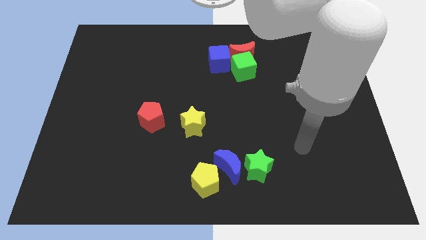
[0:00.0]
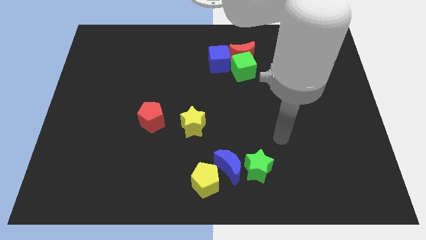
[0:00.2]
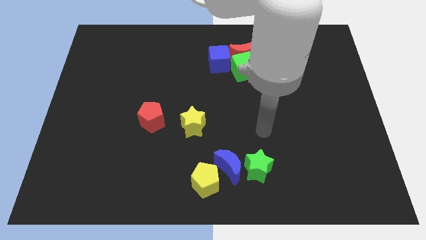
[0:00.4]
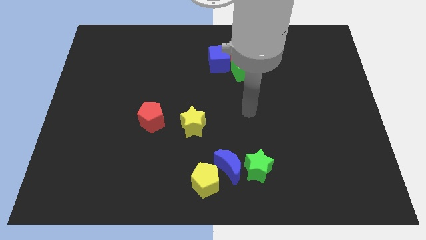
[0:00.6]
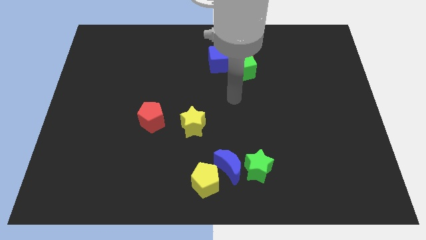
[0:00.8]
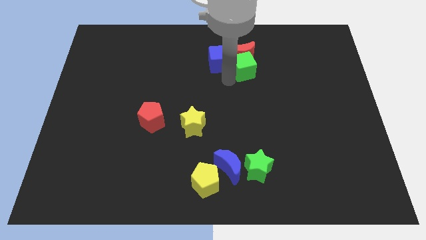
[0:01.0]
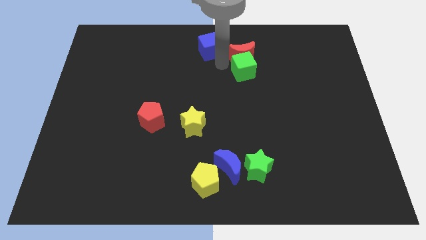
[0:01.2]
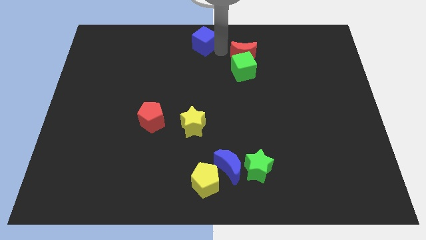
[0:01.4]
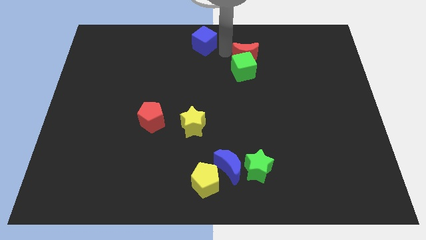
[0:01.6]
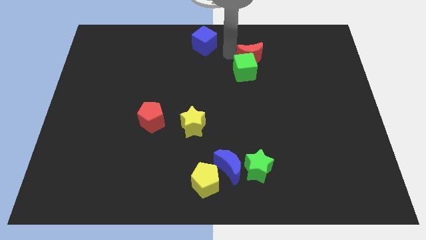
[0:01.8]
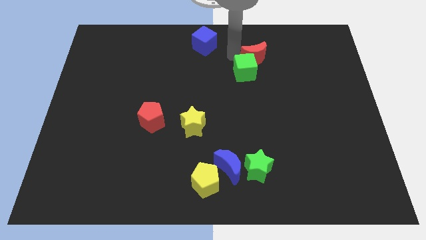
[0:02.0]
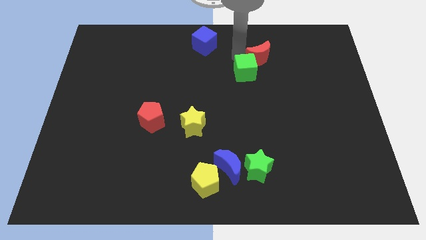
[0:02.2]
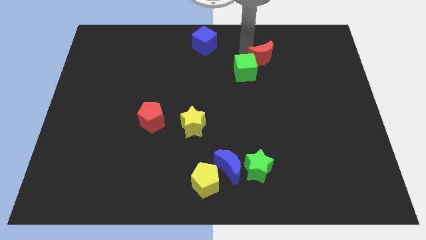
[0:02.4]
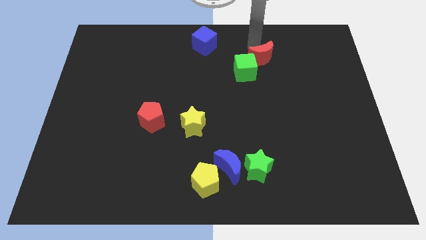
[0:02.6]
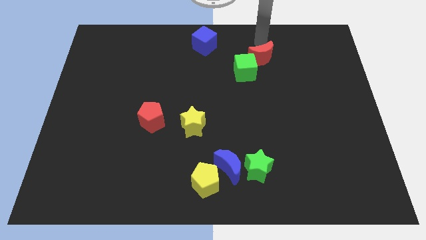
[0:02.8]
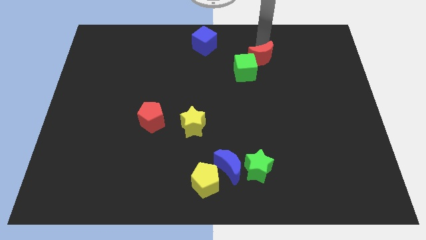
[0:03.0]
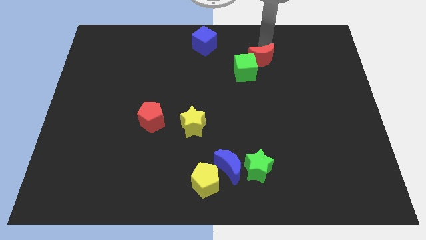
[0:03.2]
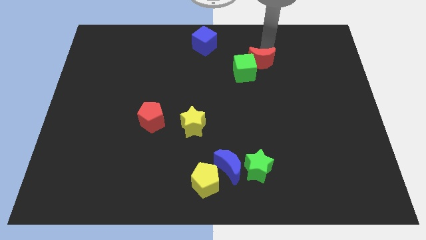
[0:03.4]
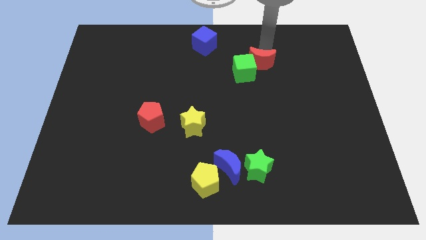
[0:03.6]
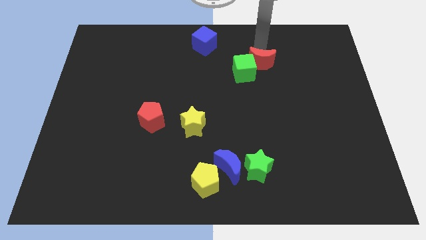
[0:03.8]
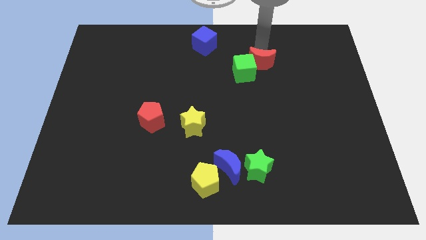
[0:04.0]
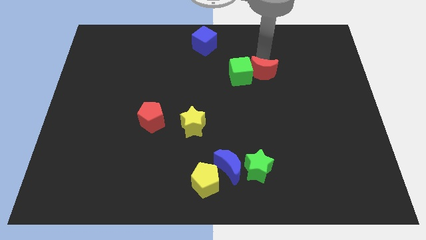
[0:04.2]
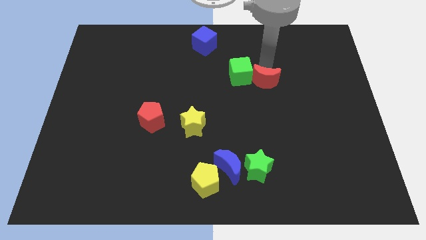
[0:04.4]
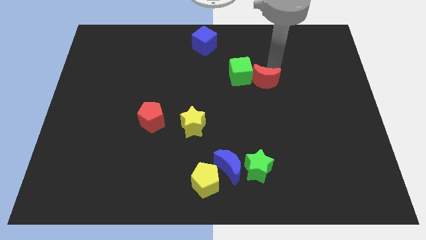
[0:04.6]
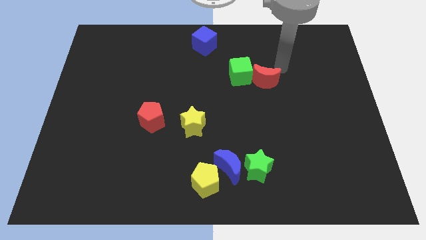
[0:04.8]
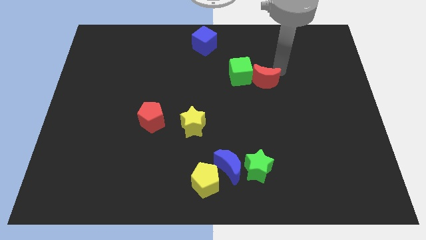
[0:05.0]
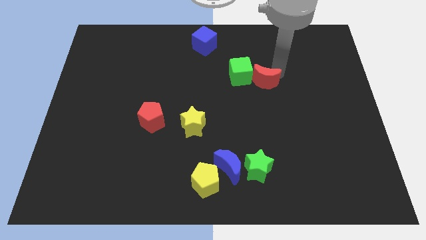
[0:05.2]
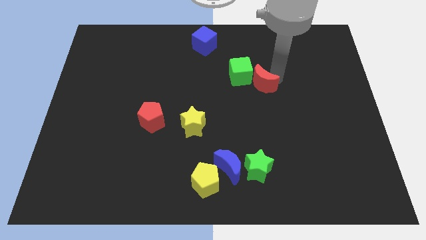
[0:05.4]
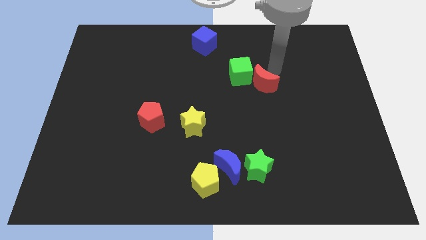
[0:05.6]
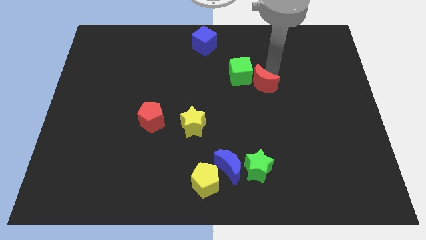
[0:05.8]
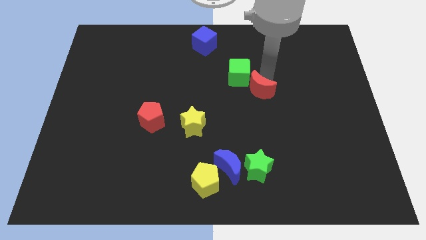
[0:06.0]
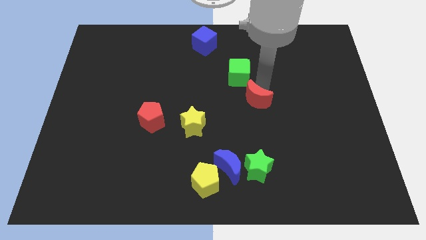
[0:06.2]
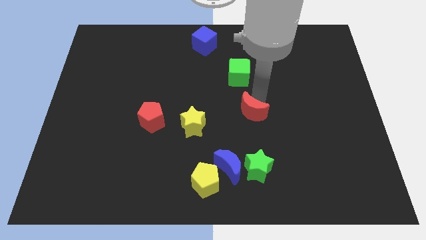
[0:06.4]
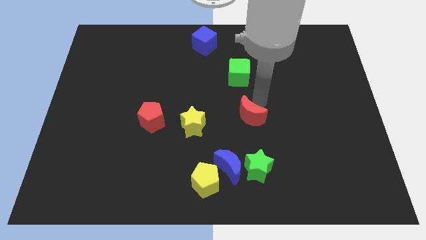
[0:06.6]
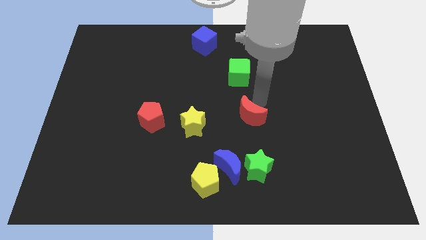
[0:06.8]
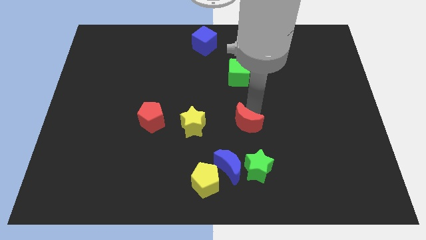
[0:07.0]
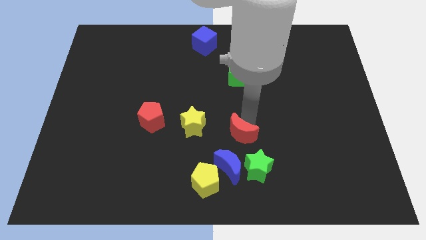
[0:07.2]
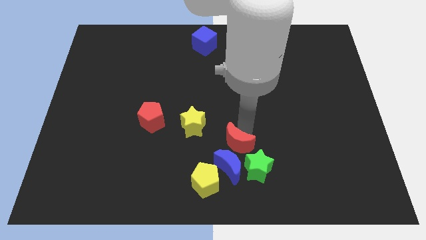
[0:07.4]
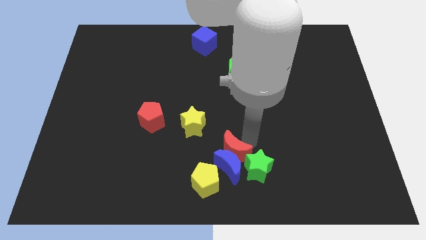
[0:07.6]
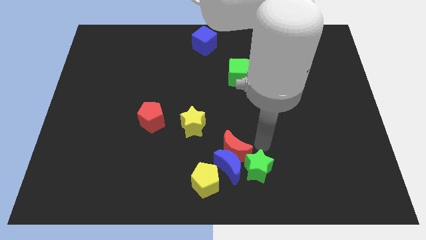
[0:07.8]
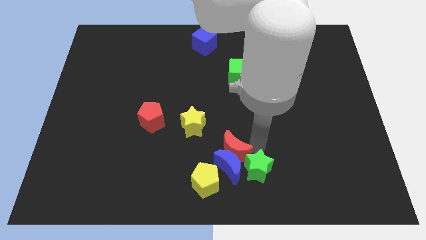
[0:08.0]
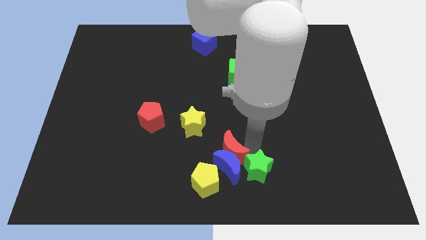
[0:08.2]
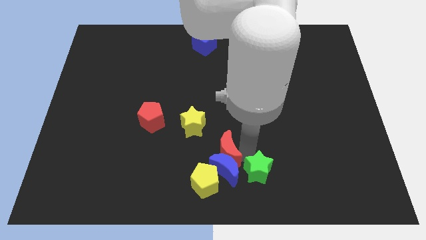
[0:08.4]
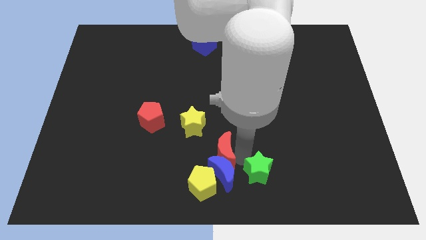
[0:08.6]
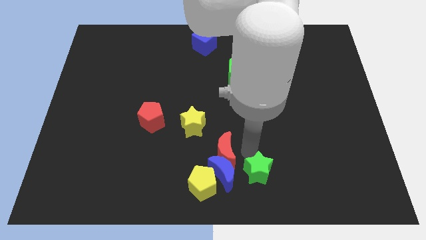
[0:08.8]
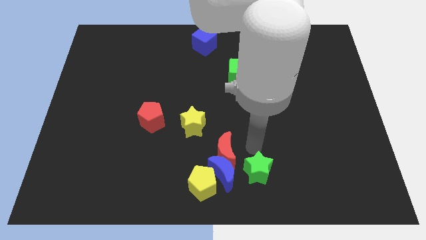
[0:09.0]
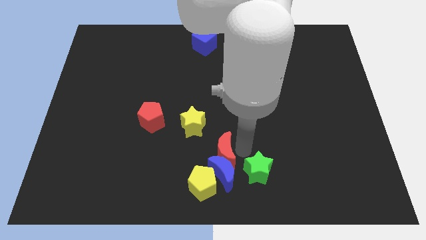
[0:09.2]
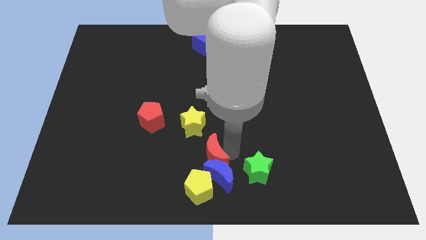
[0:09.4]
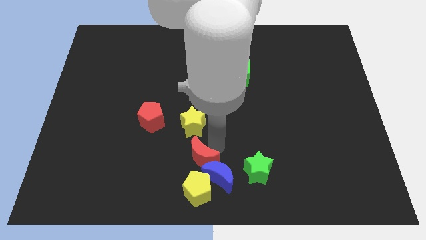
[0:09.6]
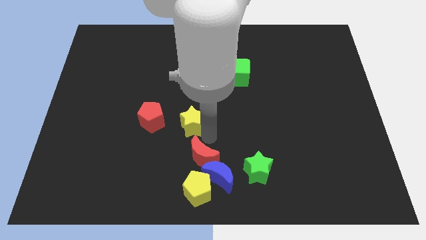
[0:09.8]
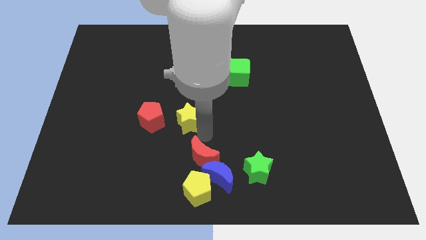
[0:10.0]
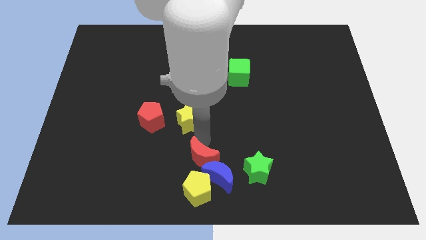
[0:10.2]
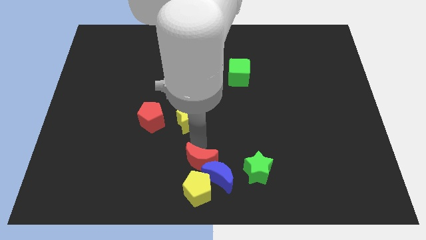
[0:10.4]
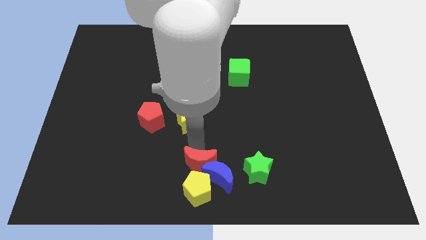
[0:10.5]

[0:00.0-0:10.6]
move the red moon next to the yellow pentagon

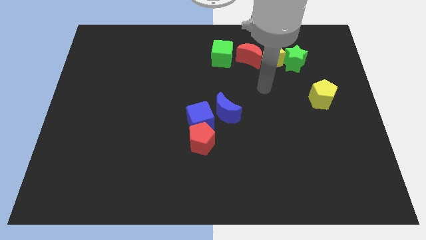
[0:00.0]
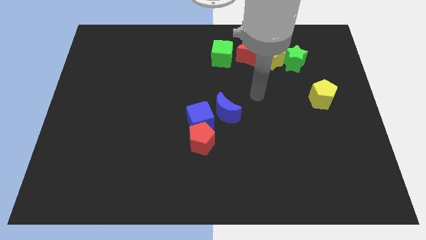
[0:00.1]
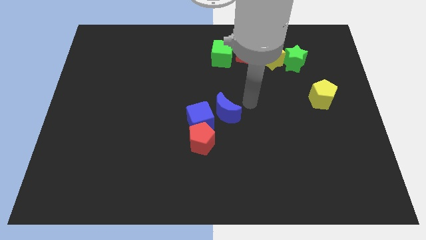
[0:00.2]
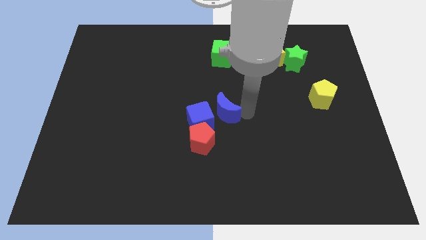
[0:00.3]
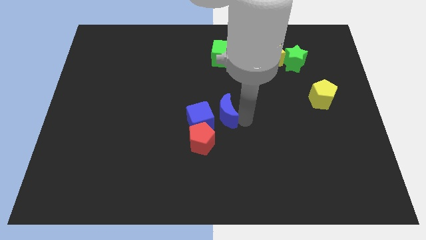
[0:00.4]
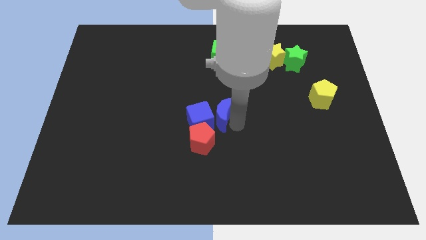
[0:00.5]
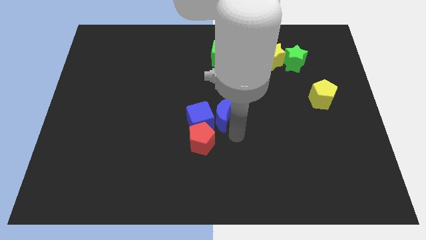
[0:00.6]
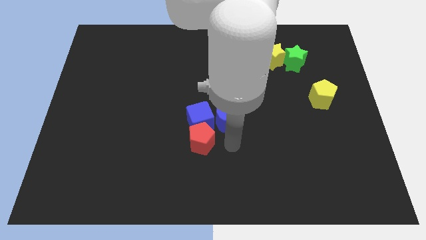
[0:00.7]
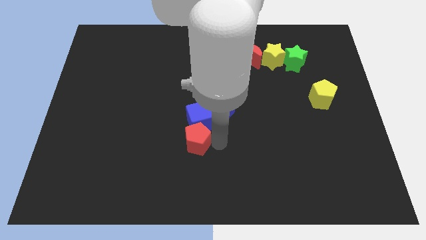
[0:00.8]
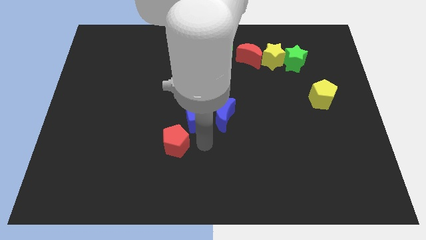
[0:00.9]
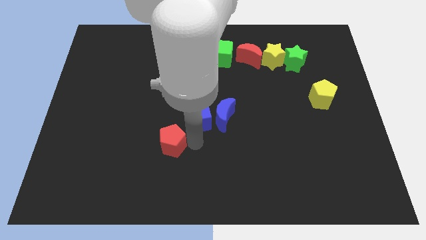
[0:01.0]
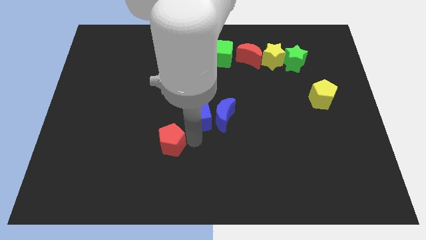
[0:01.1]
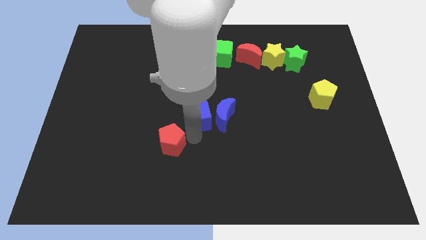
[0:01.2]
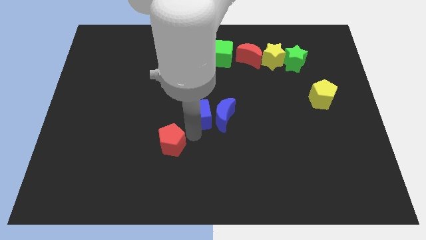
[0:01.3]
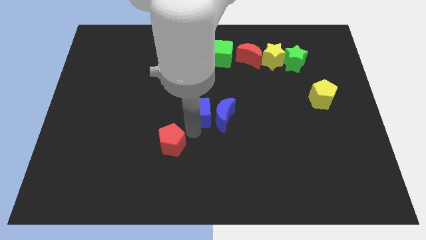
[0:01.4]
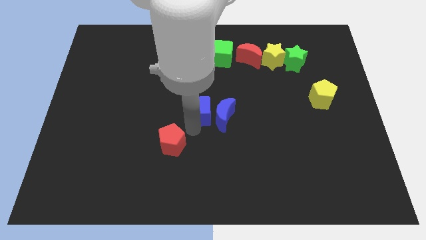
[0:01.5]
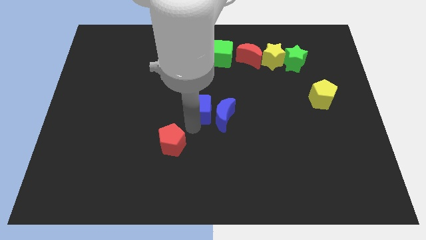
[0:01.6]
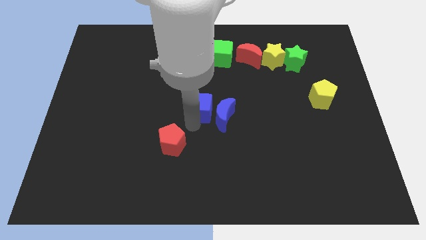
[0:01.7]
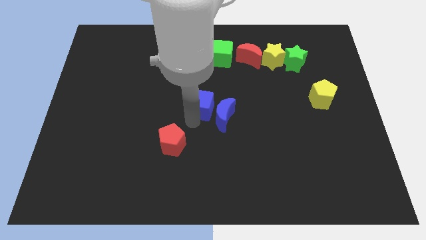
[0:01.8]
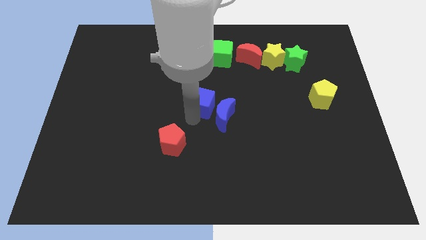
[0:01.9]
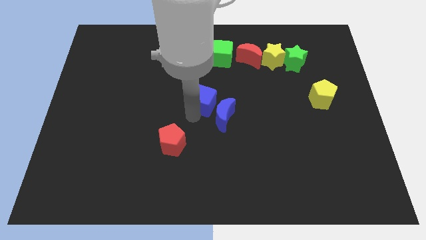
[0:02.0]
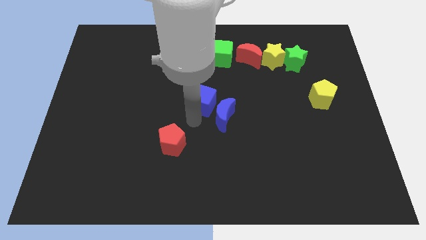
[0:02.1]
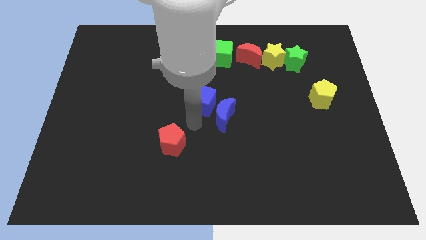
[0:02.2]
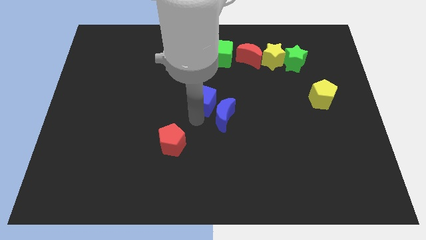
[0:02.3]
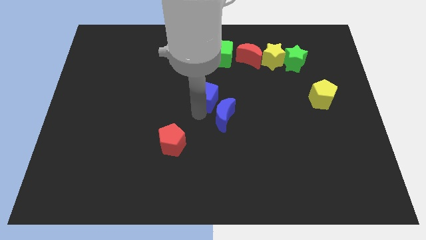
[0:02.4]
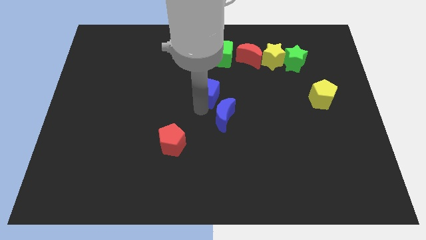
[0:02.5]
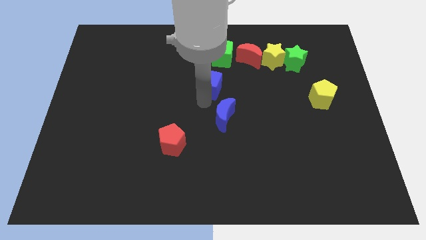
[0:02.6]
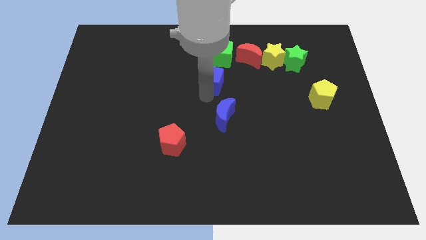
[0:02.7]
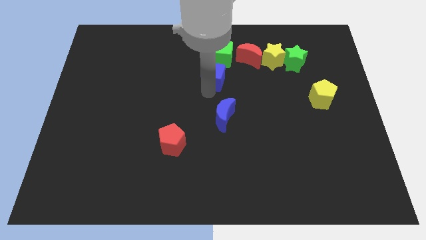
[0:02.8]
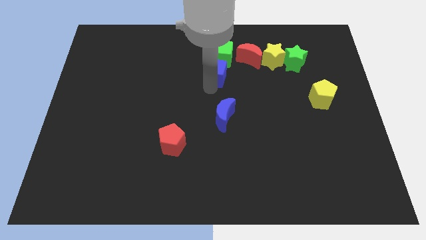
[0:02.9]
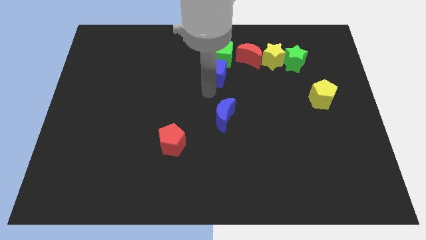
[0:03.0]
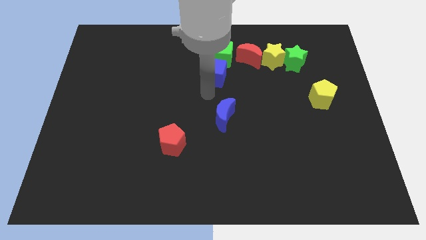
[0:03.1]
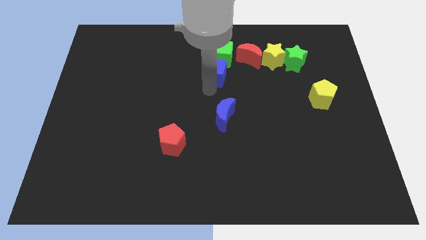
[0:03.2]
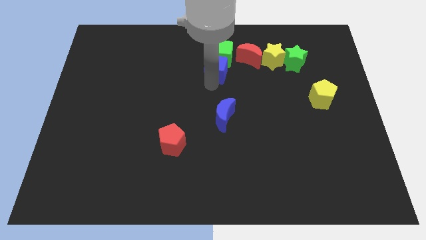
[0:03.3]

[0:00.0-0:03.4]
move the blue cube towards the green cube
